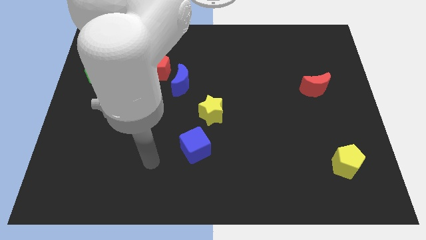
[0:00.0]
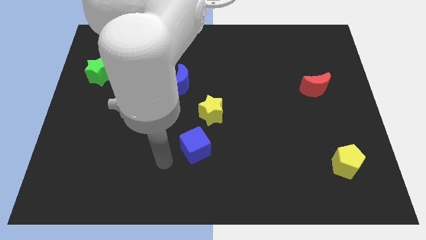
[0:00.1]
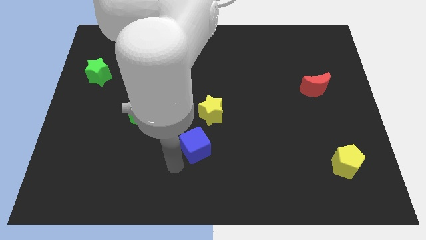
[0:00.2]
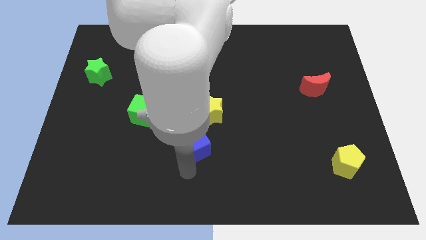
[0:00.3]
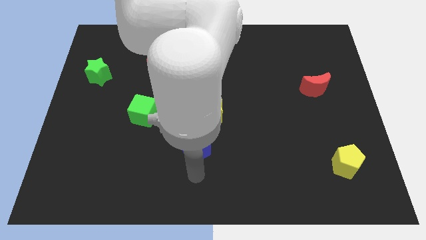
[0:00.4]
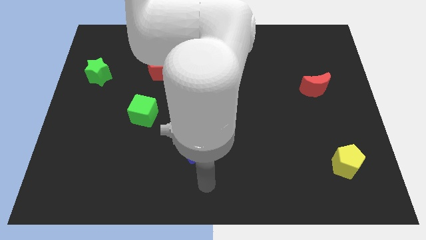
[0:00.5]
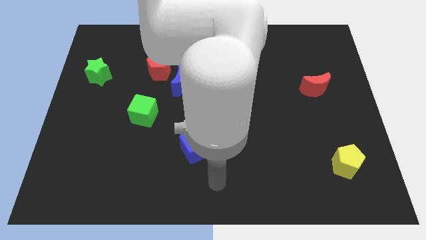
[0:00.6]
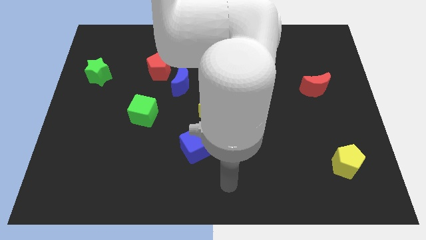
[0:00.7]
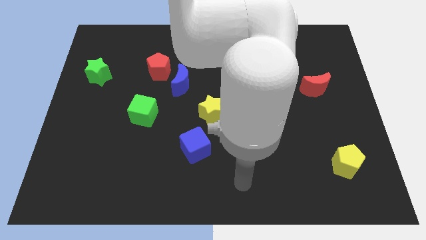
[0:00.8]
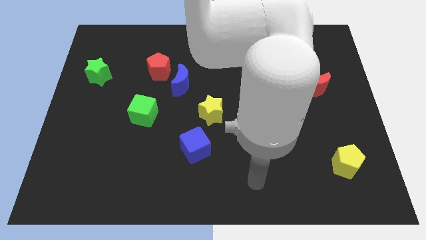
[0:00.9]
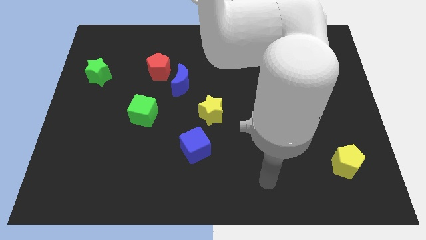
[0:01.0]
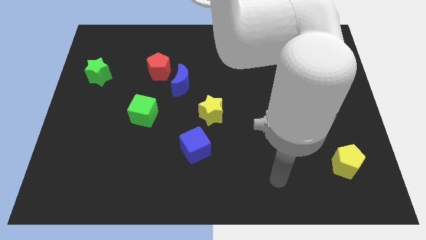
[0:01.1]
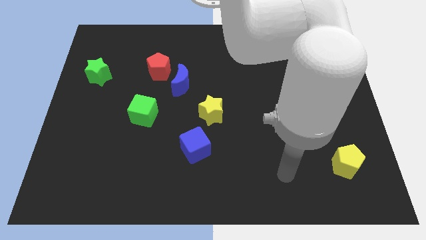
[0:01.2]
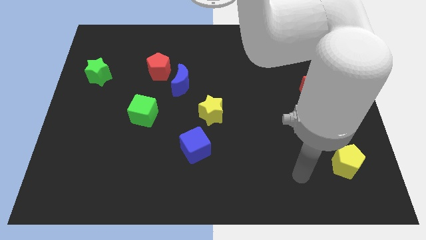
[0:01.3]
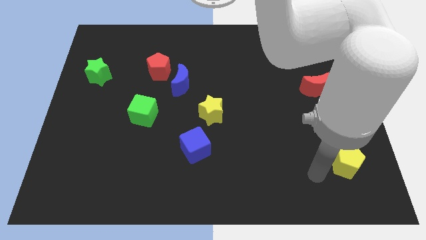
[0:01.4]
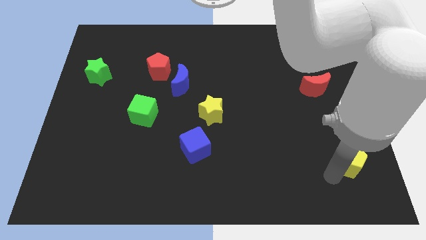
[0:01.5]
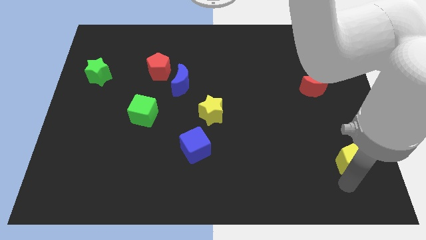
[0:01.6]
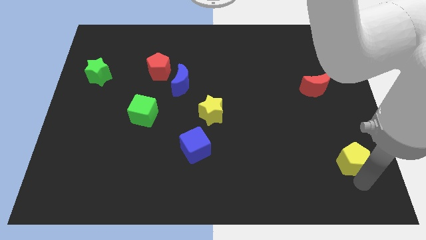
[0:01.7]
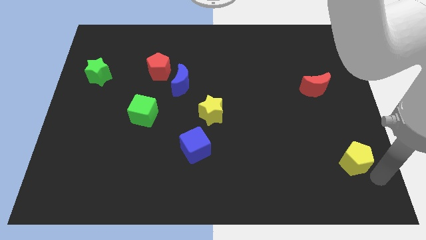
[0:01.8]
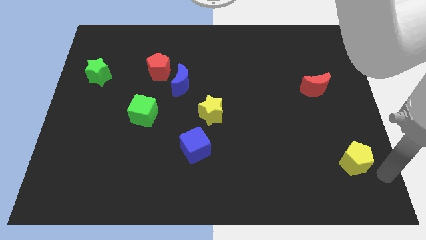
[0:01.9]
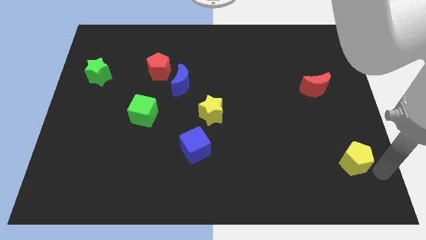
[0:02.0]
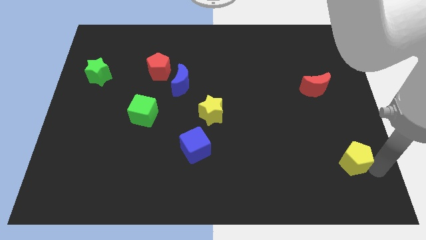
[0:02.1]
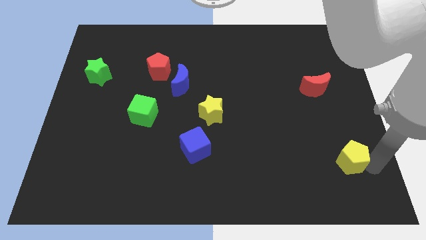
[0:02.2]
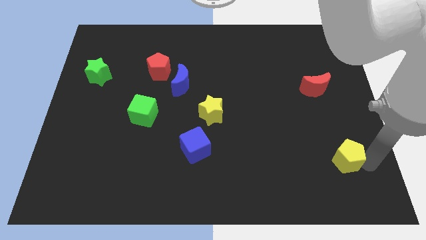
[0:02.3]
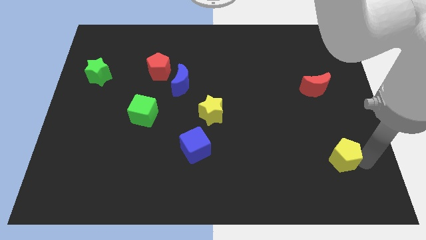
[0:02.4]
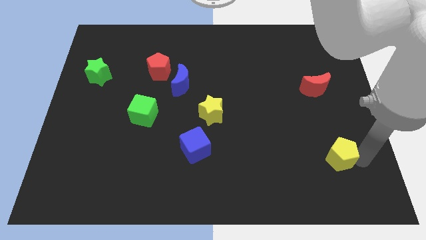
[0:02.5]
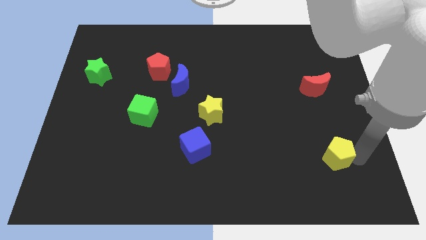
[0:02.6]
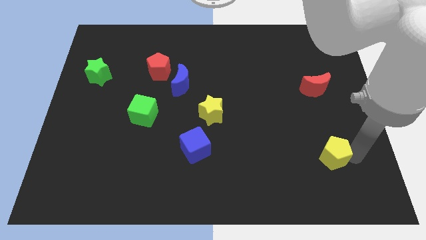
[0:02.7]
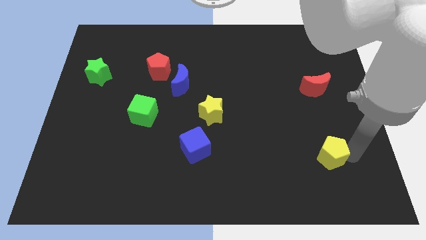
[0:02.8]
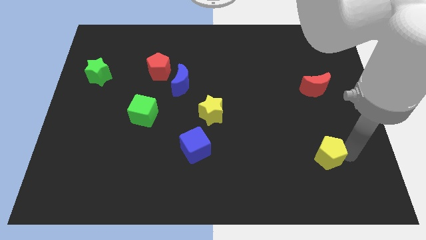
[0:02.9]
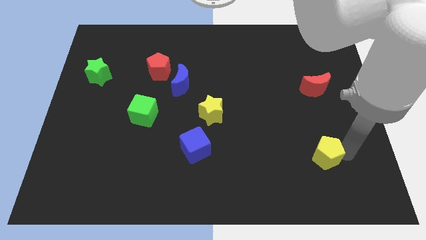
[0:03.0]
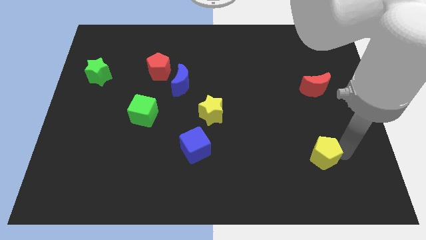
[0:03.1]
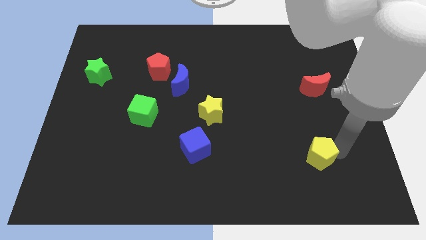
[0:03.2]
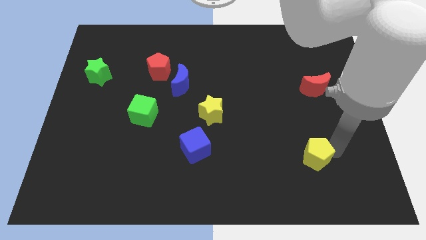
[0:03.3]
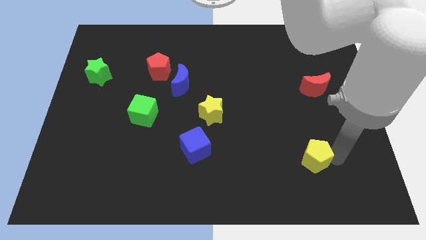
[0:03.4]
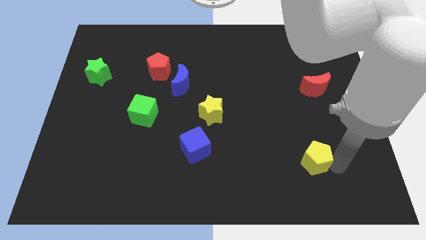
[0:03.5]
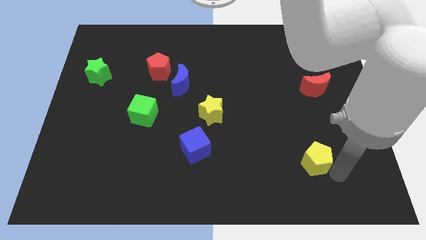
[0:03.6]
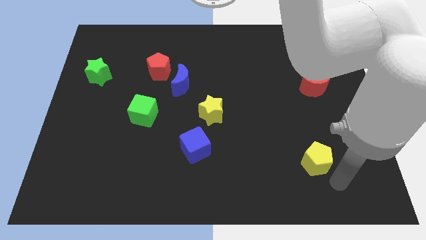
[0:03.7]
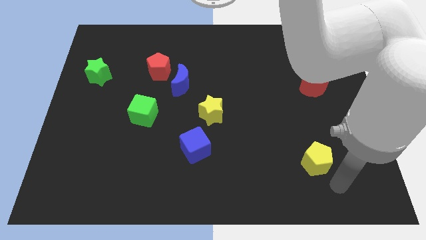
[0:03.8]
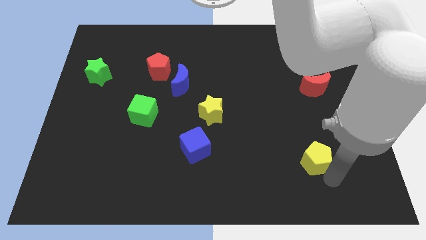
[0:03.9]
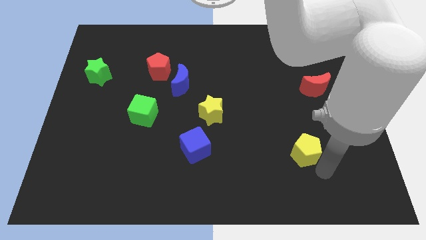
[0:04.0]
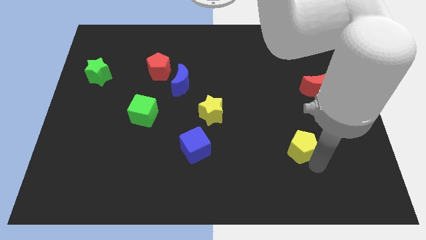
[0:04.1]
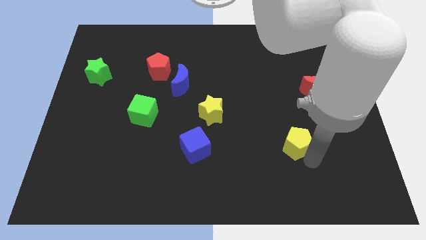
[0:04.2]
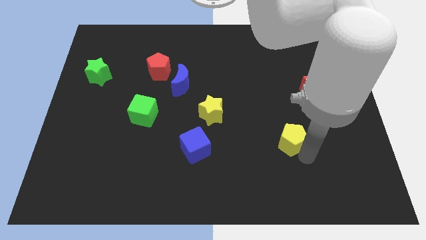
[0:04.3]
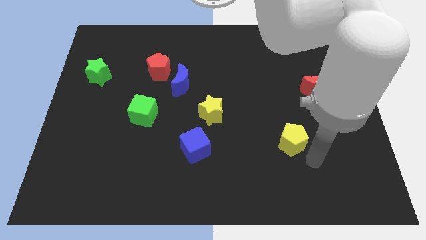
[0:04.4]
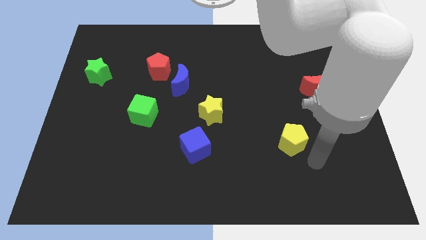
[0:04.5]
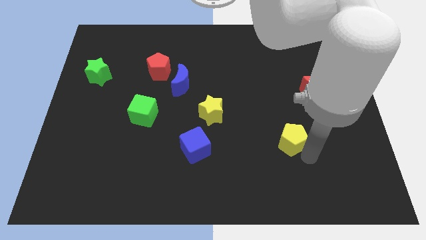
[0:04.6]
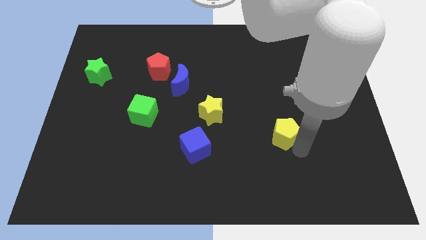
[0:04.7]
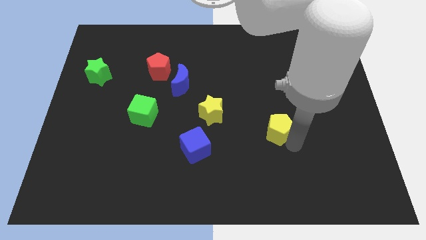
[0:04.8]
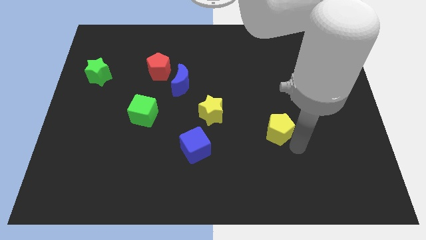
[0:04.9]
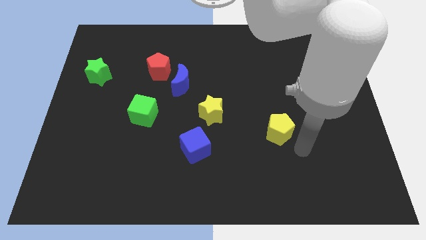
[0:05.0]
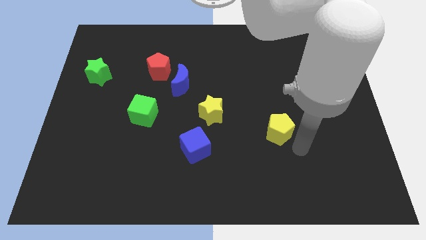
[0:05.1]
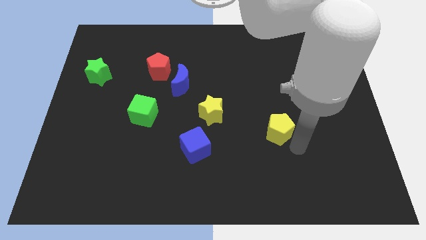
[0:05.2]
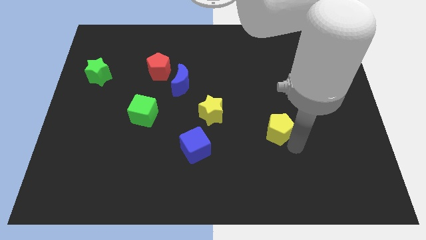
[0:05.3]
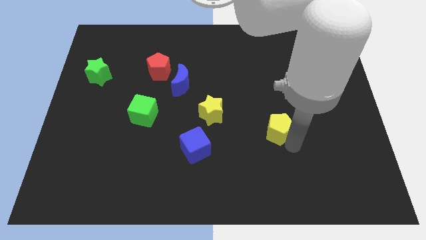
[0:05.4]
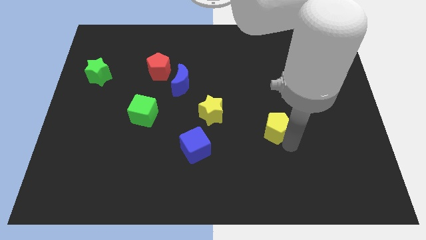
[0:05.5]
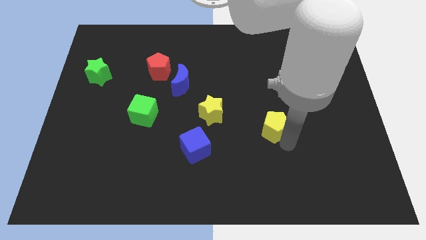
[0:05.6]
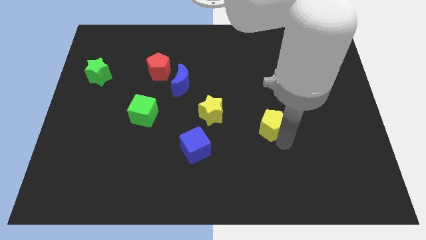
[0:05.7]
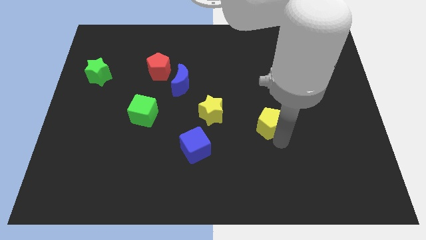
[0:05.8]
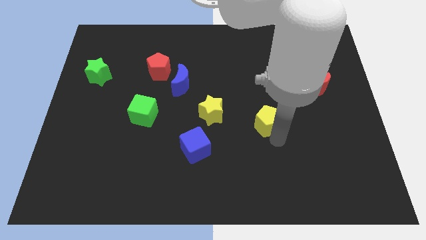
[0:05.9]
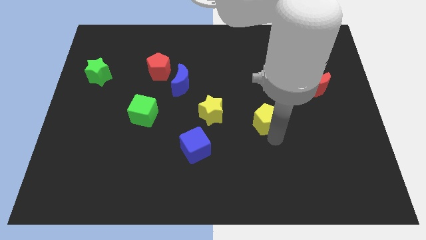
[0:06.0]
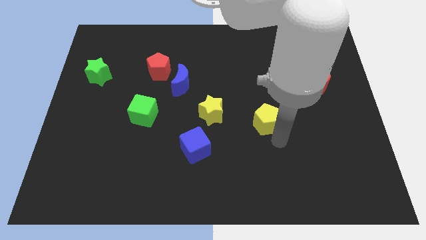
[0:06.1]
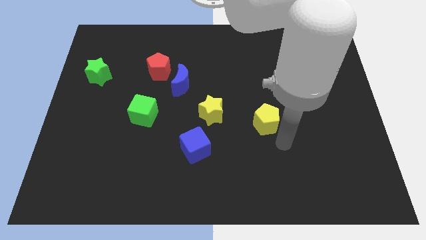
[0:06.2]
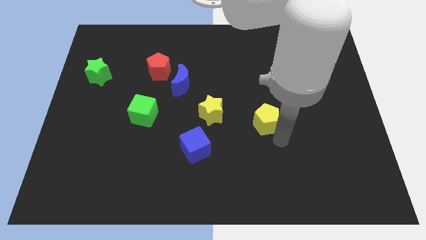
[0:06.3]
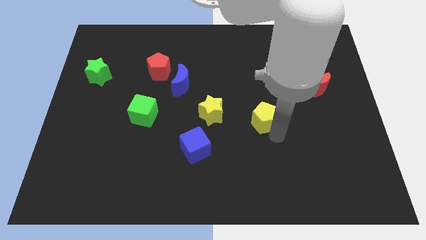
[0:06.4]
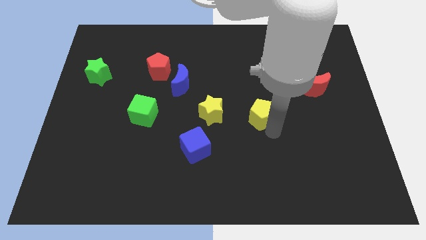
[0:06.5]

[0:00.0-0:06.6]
slide the yellow pentagon up and left

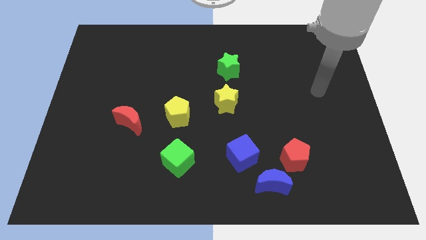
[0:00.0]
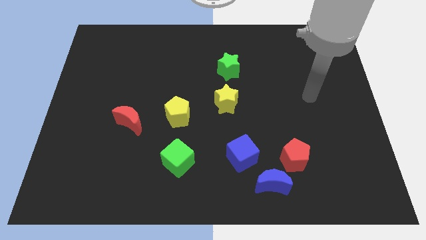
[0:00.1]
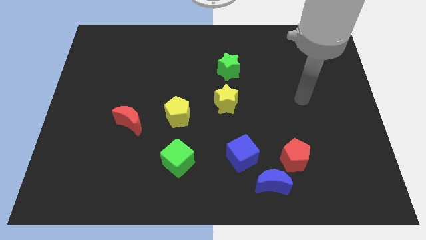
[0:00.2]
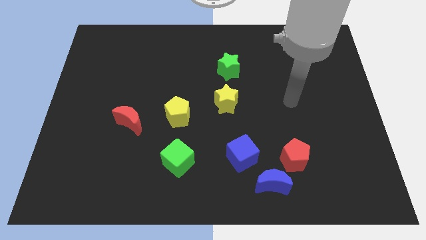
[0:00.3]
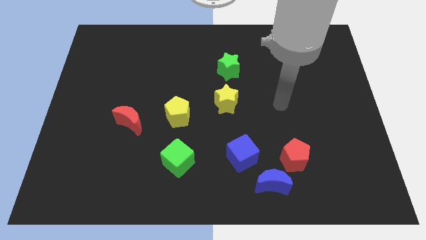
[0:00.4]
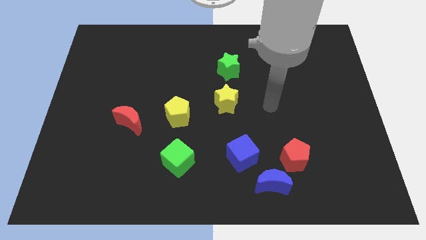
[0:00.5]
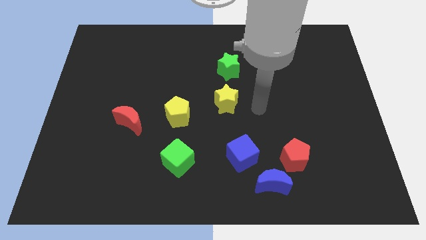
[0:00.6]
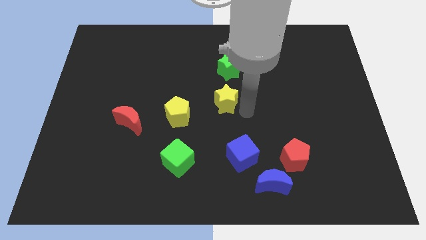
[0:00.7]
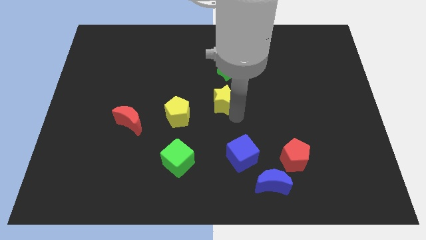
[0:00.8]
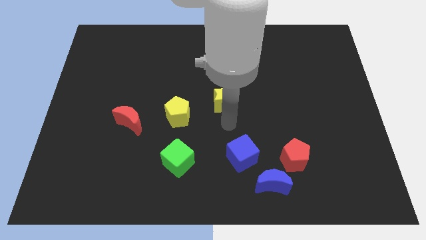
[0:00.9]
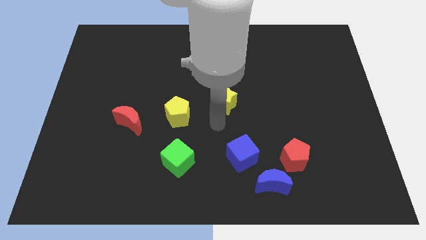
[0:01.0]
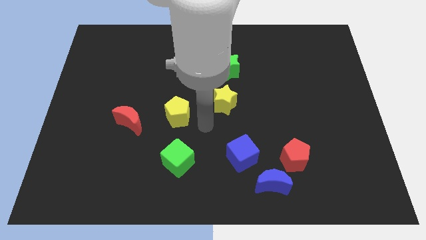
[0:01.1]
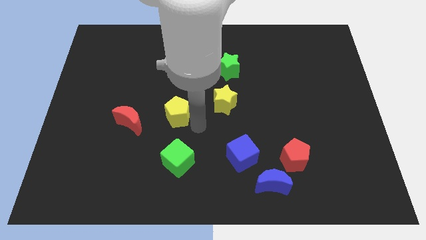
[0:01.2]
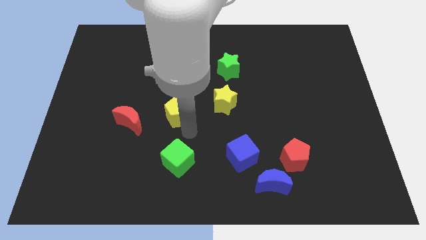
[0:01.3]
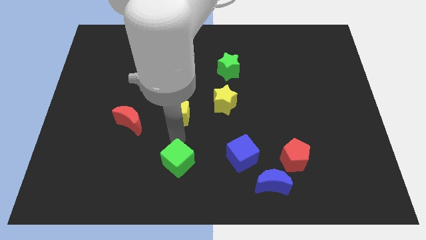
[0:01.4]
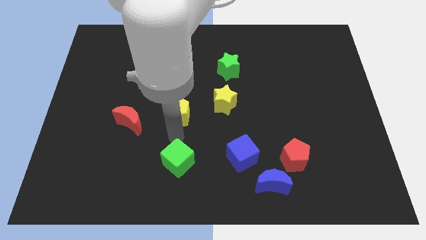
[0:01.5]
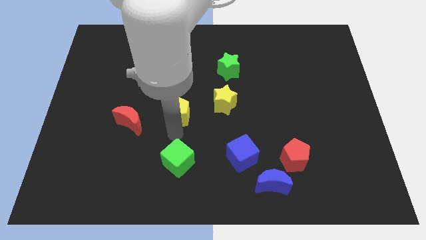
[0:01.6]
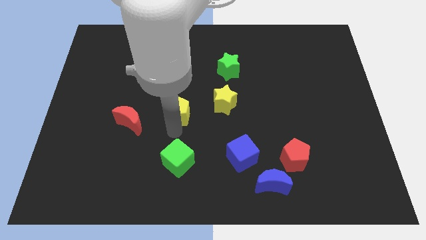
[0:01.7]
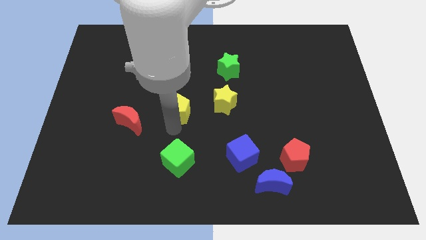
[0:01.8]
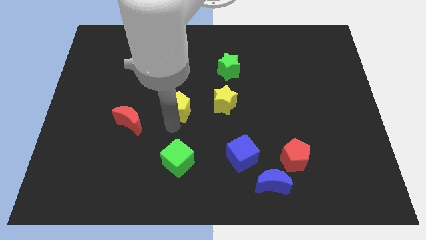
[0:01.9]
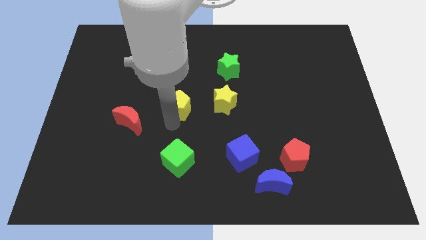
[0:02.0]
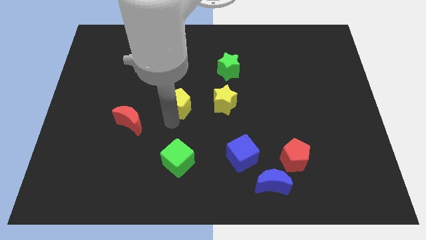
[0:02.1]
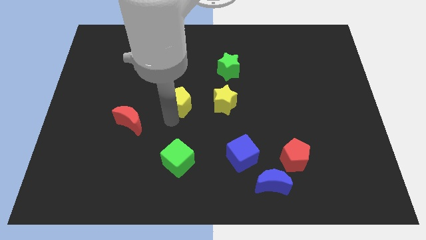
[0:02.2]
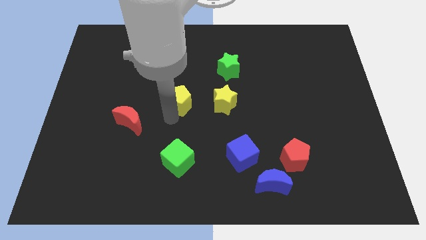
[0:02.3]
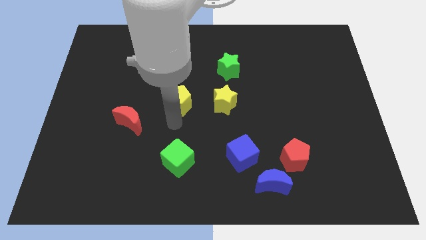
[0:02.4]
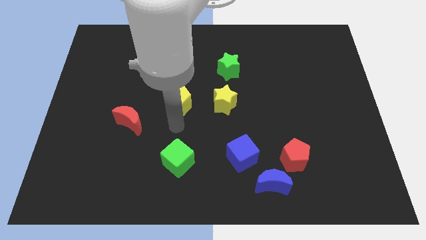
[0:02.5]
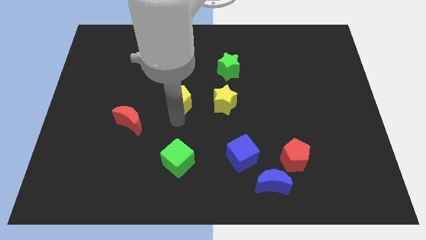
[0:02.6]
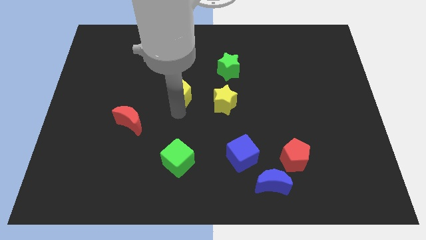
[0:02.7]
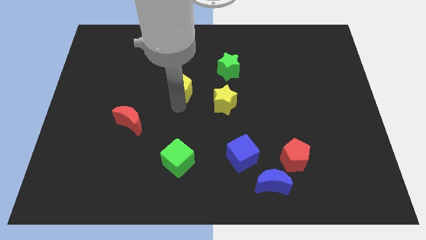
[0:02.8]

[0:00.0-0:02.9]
push the yellow pentagon up a little
